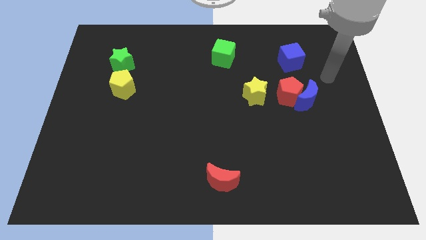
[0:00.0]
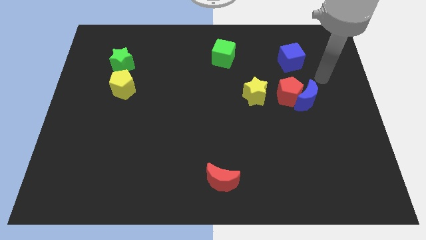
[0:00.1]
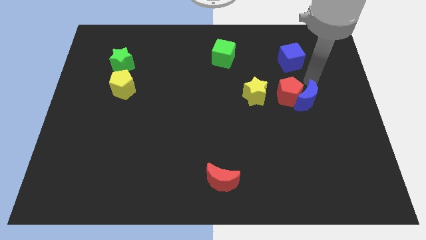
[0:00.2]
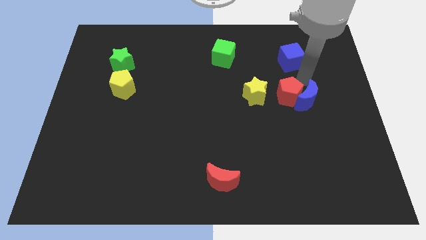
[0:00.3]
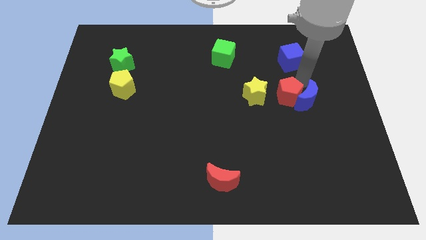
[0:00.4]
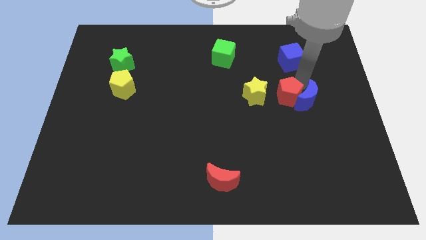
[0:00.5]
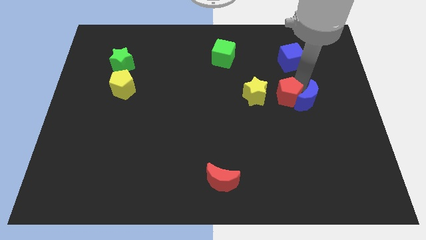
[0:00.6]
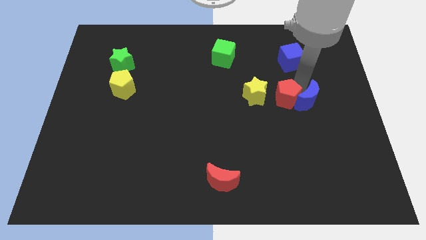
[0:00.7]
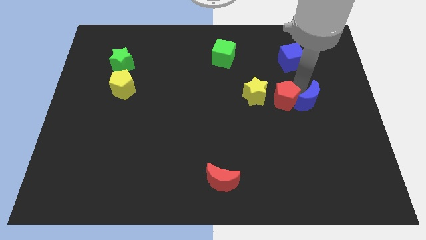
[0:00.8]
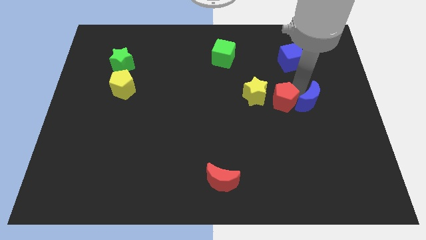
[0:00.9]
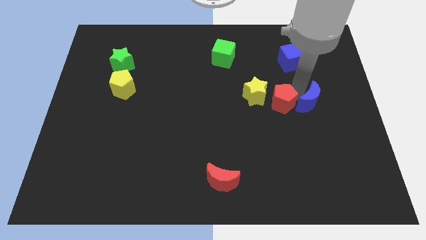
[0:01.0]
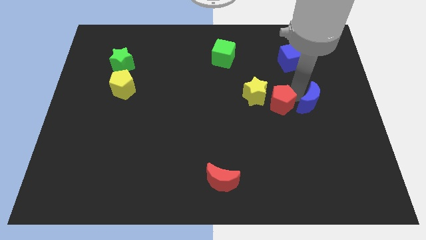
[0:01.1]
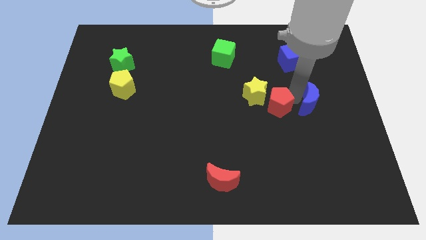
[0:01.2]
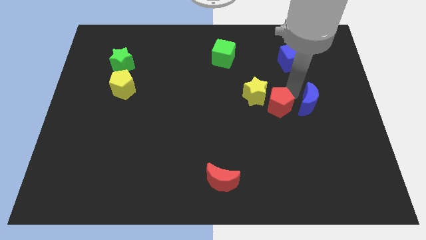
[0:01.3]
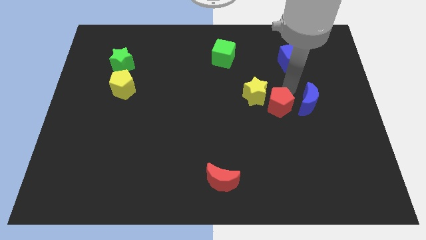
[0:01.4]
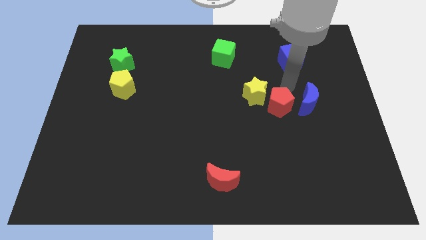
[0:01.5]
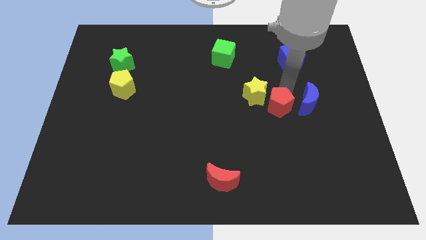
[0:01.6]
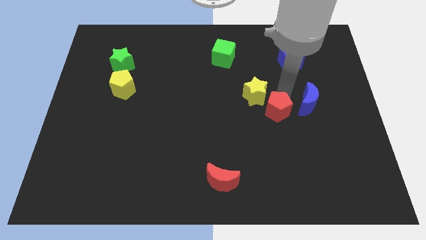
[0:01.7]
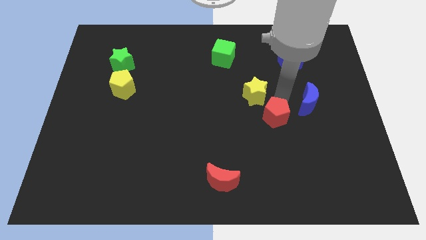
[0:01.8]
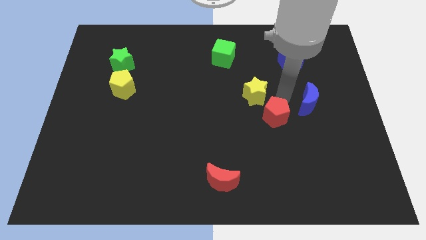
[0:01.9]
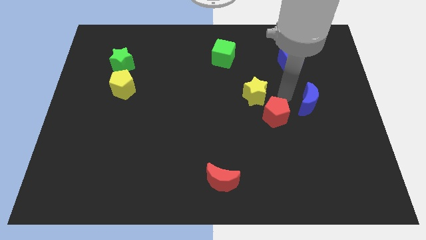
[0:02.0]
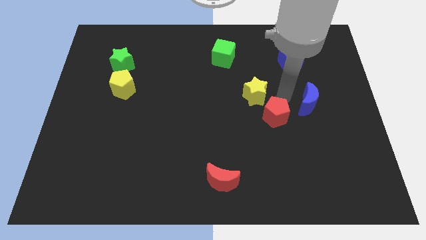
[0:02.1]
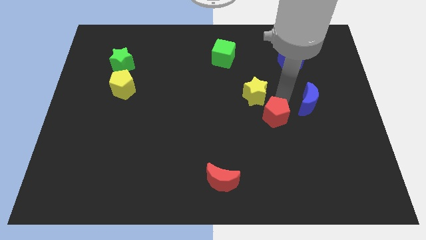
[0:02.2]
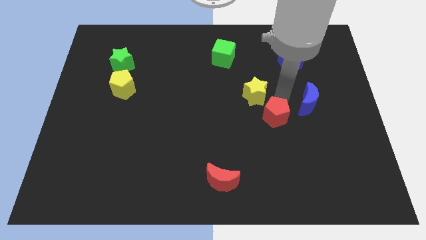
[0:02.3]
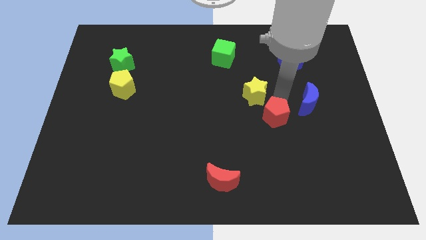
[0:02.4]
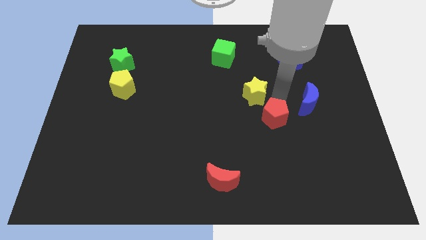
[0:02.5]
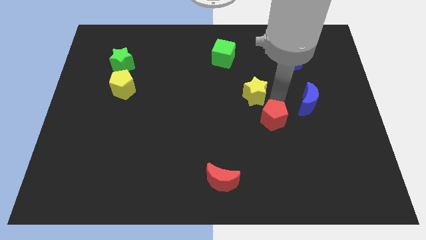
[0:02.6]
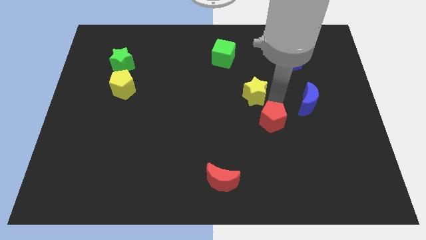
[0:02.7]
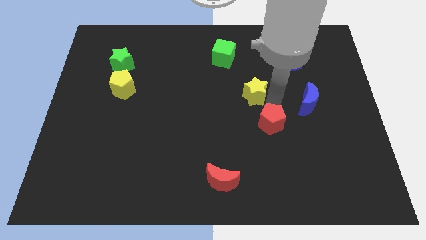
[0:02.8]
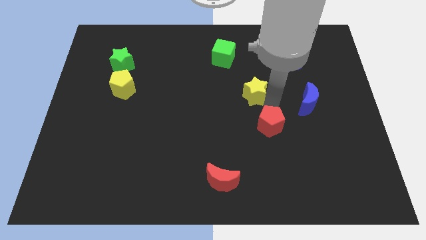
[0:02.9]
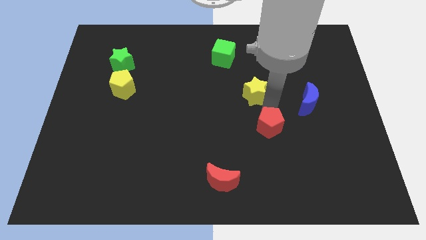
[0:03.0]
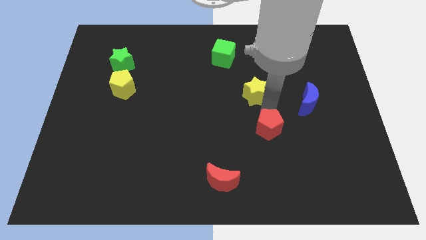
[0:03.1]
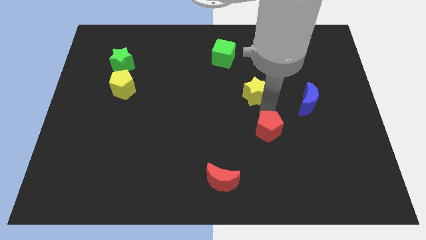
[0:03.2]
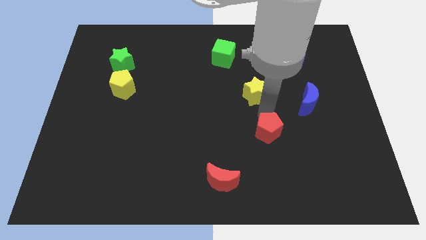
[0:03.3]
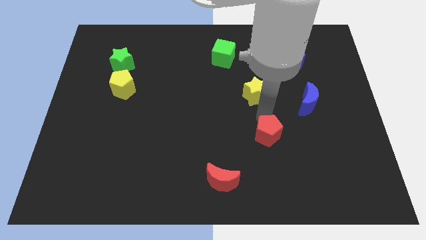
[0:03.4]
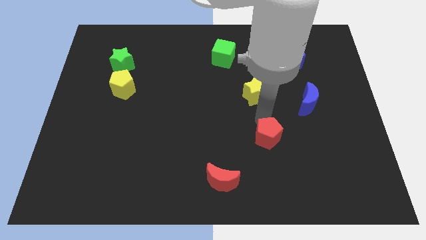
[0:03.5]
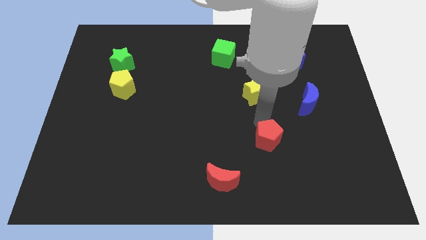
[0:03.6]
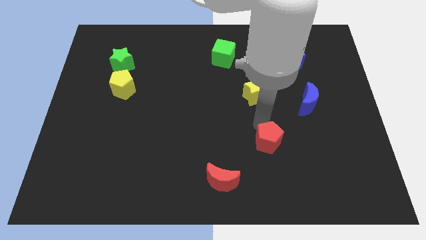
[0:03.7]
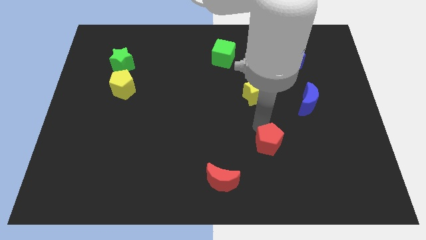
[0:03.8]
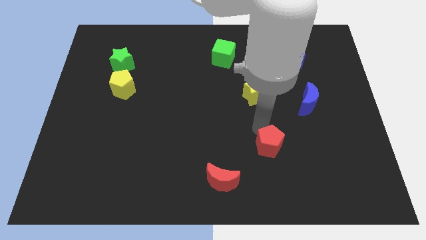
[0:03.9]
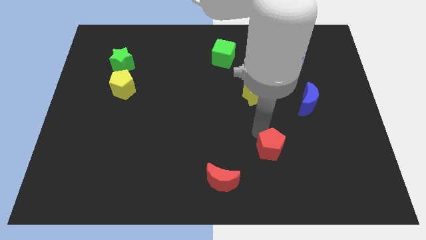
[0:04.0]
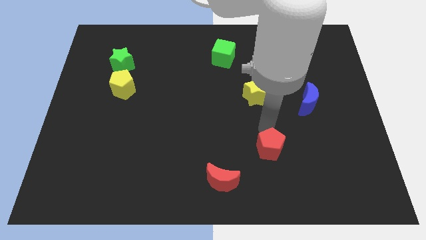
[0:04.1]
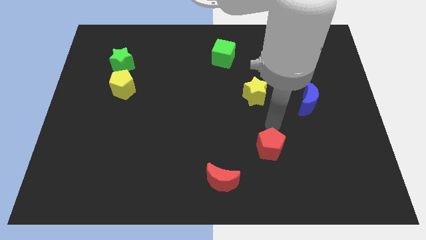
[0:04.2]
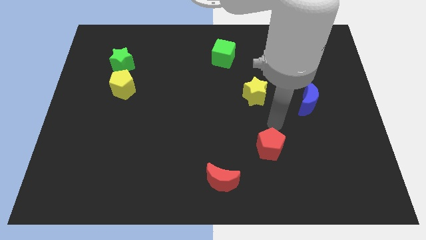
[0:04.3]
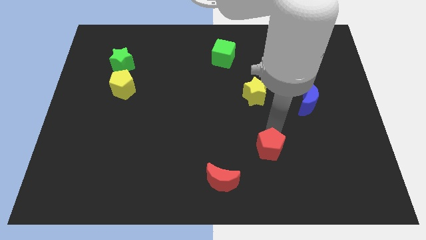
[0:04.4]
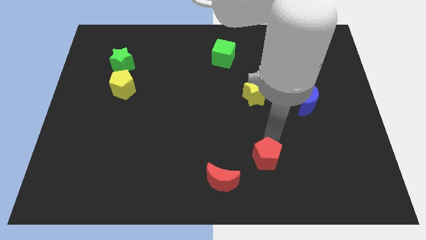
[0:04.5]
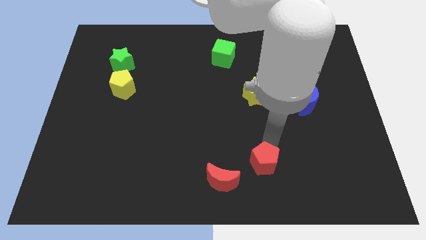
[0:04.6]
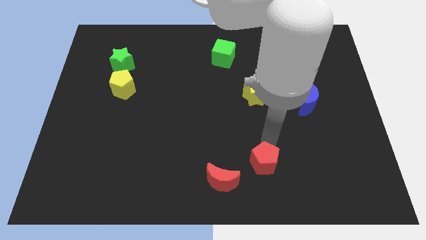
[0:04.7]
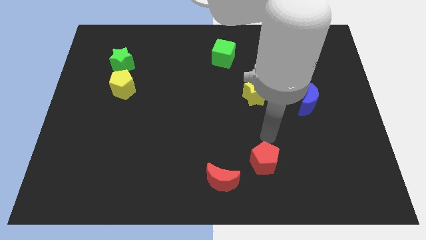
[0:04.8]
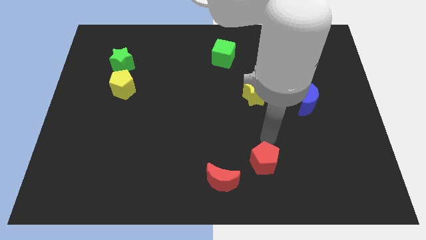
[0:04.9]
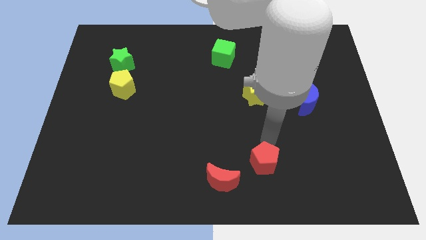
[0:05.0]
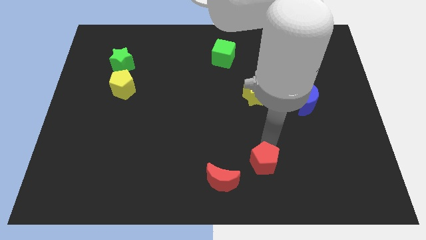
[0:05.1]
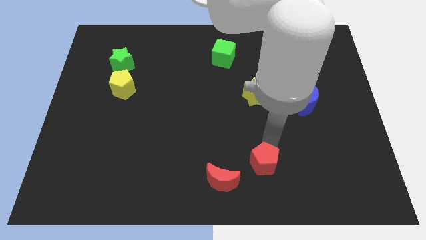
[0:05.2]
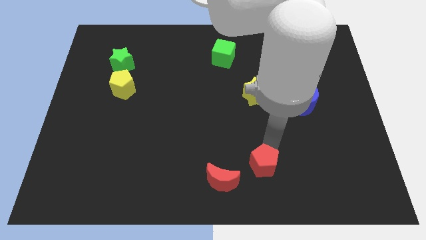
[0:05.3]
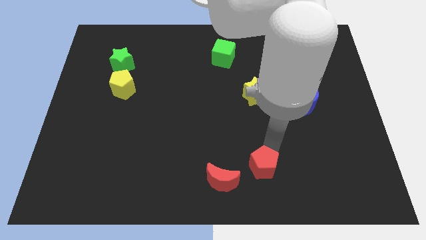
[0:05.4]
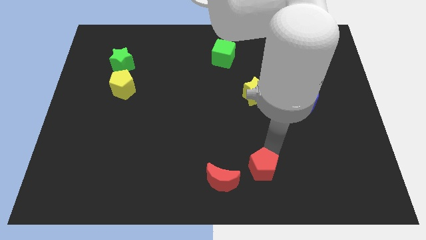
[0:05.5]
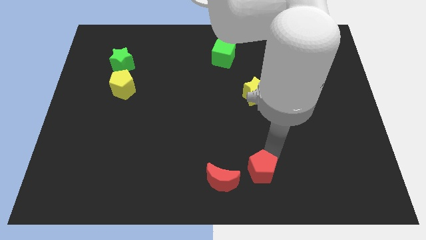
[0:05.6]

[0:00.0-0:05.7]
put the red pentagon to the bottom
